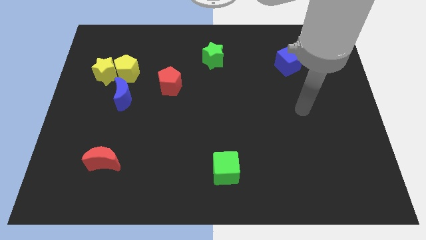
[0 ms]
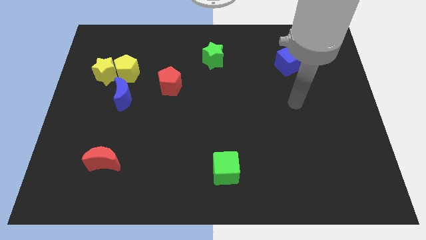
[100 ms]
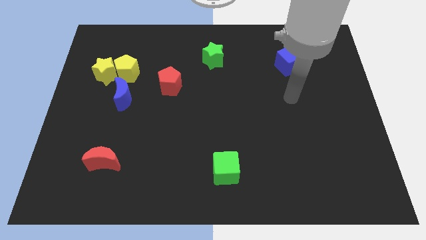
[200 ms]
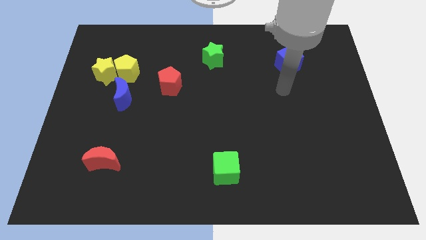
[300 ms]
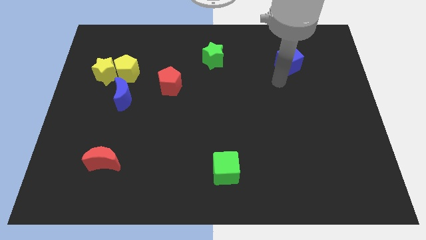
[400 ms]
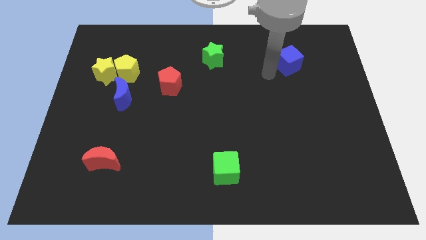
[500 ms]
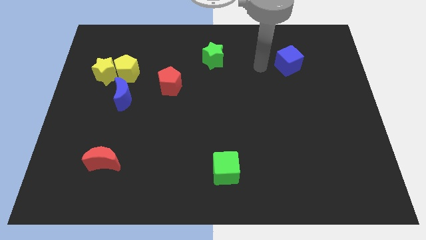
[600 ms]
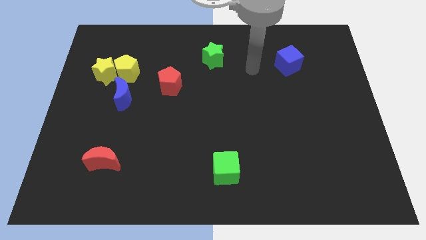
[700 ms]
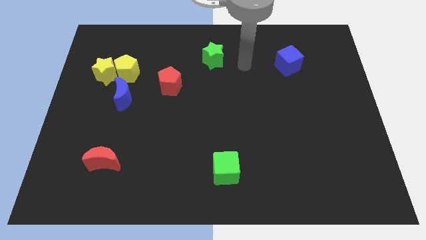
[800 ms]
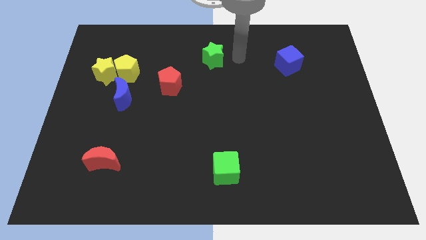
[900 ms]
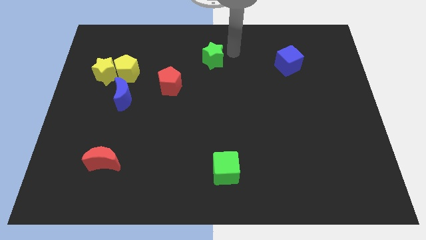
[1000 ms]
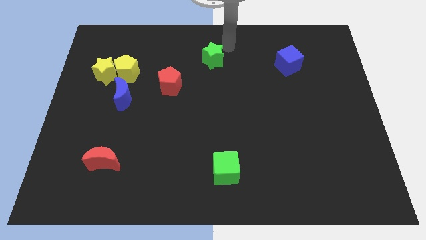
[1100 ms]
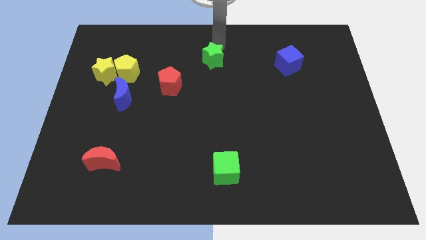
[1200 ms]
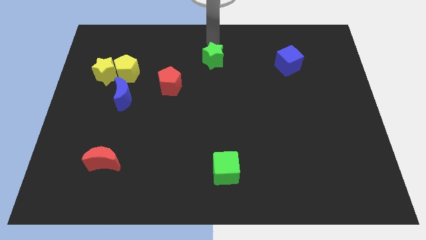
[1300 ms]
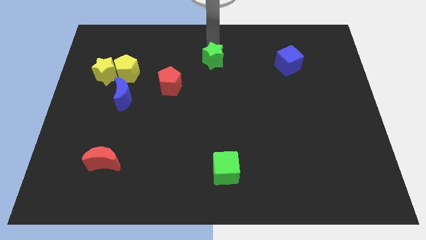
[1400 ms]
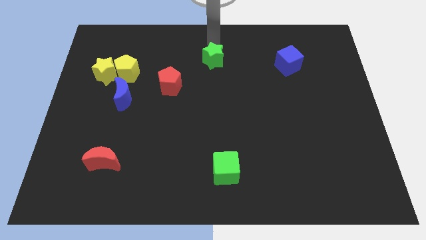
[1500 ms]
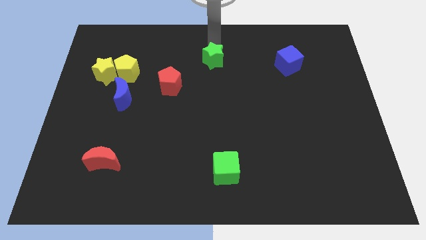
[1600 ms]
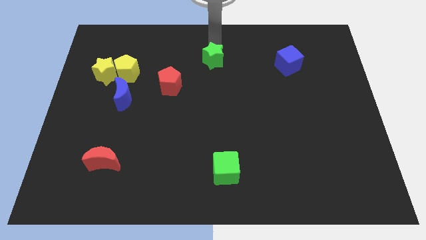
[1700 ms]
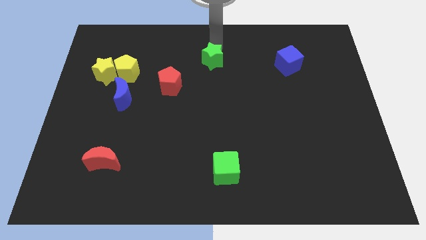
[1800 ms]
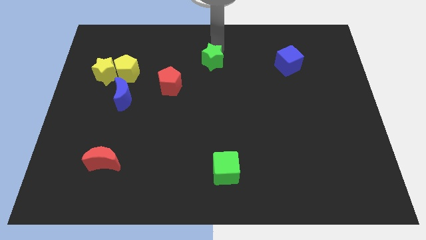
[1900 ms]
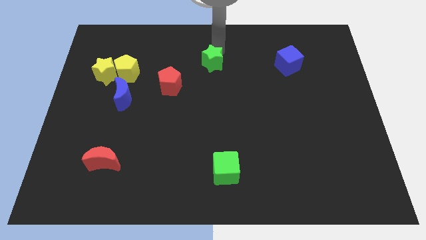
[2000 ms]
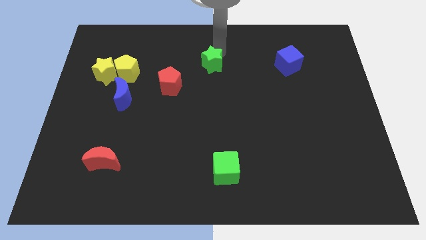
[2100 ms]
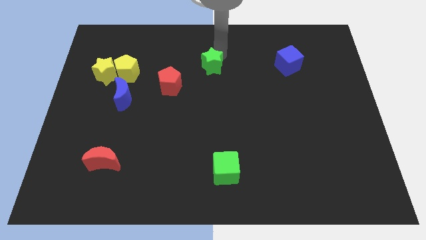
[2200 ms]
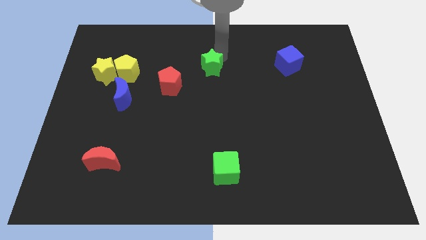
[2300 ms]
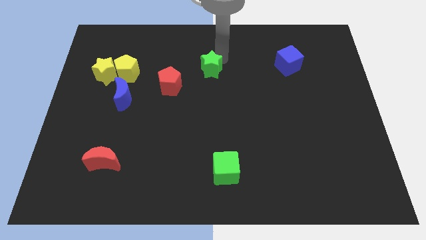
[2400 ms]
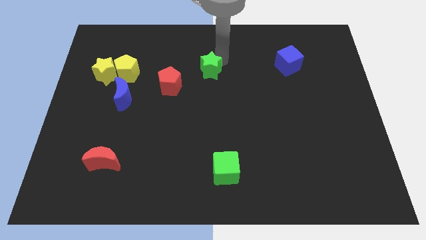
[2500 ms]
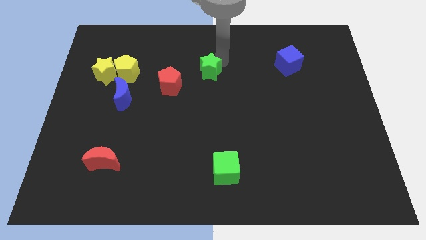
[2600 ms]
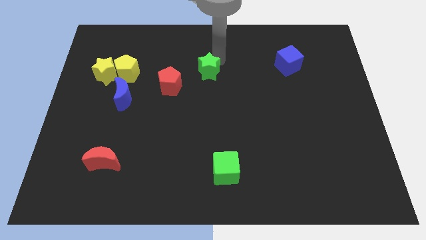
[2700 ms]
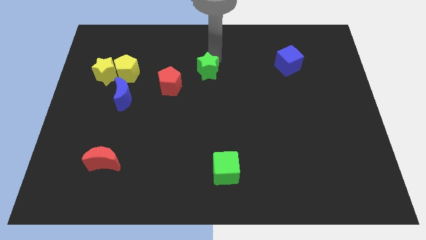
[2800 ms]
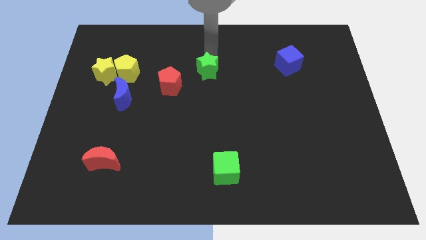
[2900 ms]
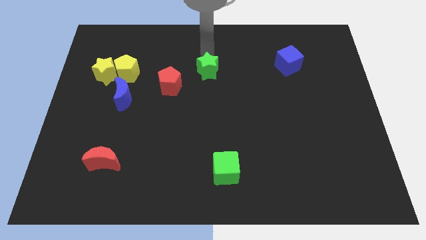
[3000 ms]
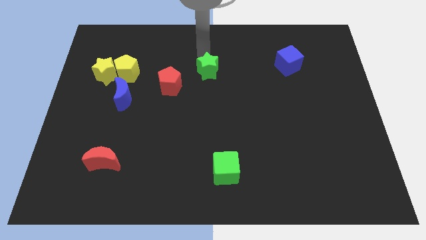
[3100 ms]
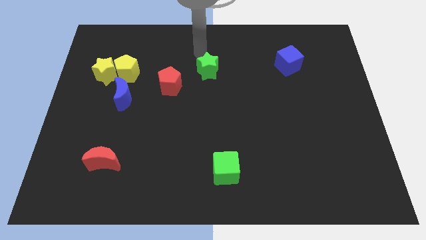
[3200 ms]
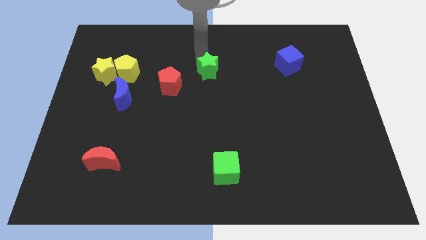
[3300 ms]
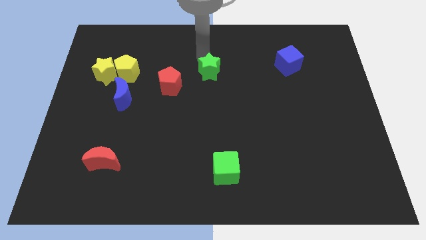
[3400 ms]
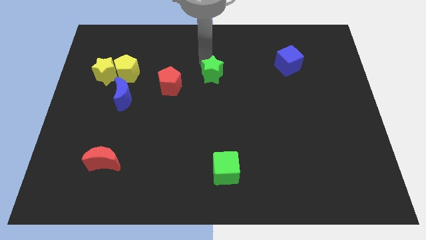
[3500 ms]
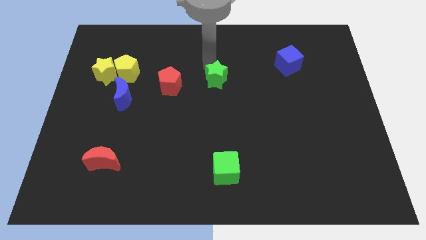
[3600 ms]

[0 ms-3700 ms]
slide the green star slightly downwards

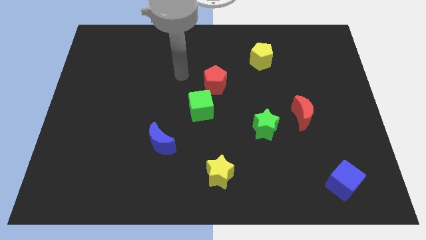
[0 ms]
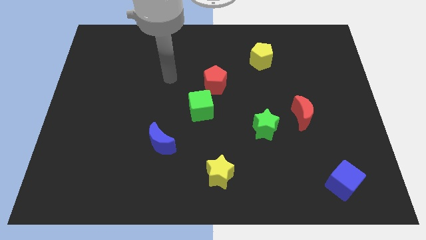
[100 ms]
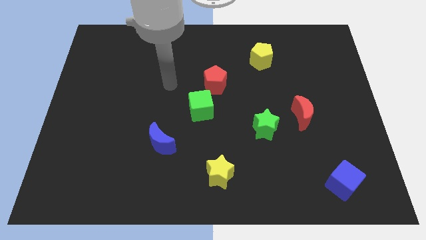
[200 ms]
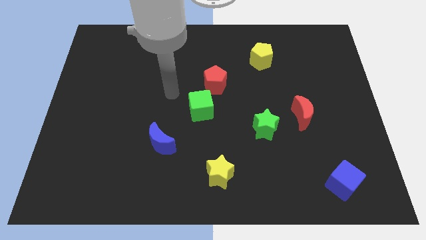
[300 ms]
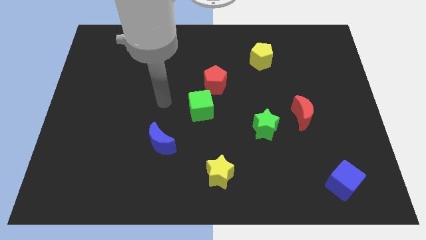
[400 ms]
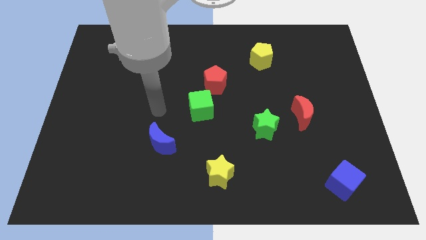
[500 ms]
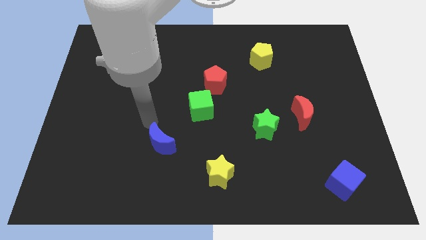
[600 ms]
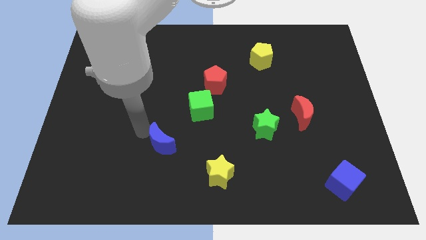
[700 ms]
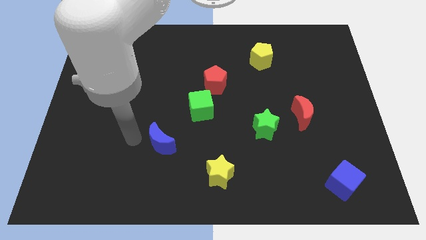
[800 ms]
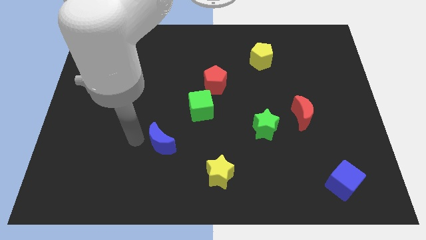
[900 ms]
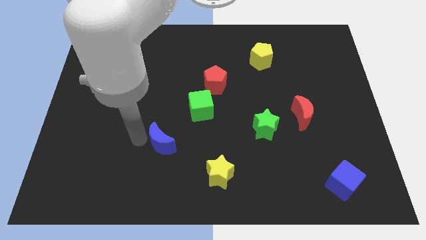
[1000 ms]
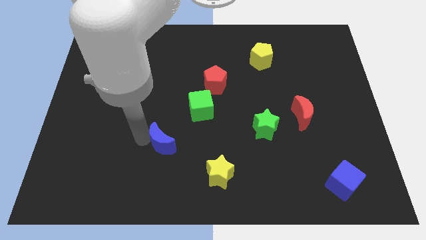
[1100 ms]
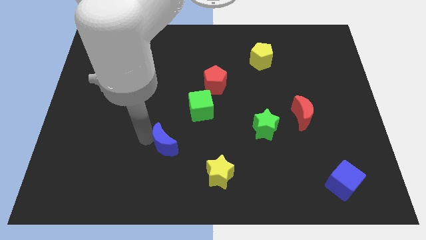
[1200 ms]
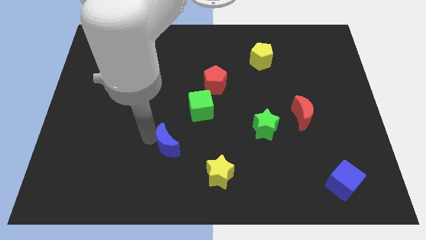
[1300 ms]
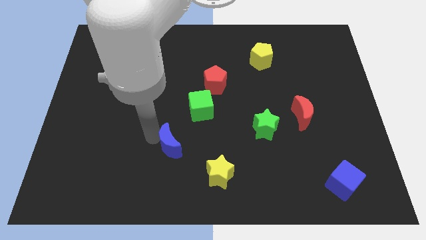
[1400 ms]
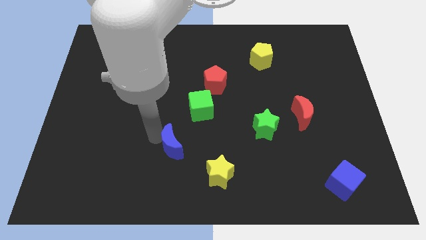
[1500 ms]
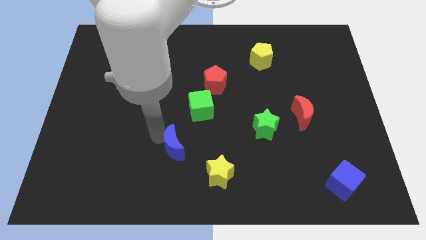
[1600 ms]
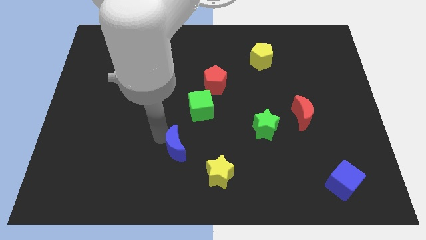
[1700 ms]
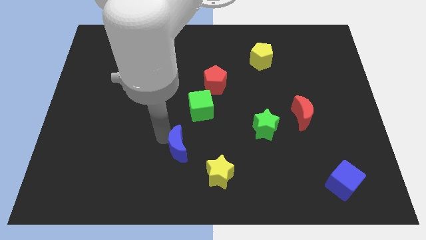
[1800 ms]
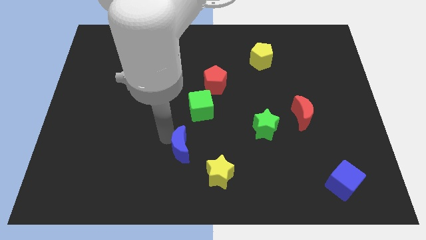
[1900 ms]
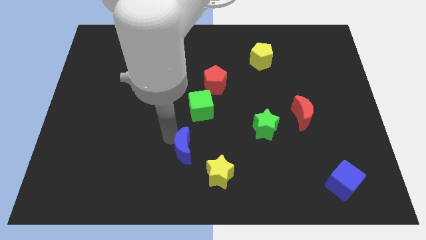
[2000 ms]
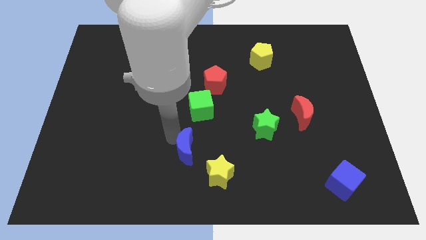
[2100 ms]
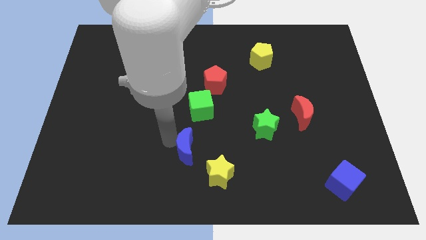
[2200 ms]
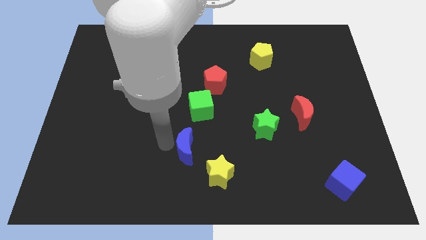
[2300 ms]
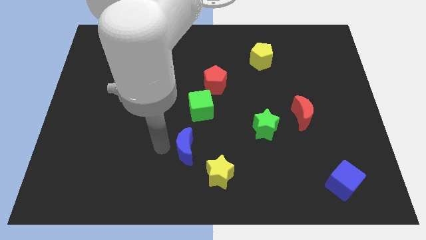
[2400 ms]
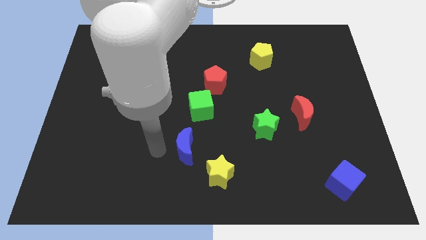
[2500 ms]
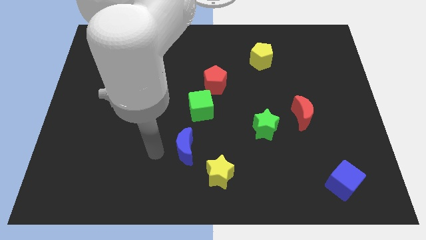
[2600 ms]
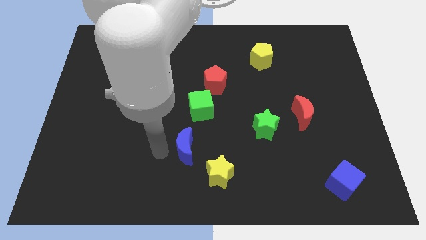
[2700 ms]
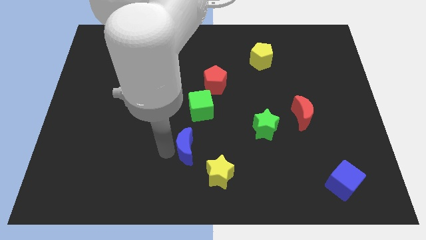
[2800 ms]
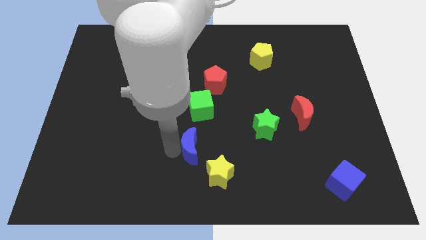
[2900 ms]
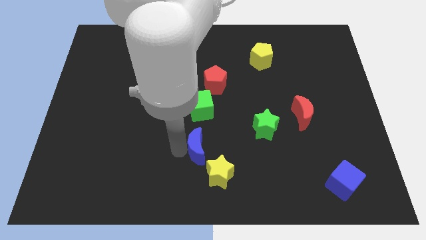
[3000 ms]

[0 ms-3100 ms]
push the blue moon right a little

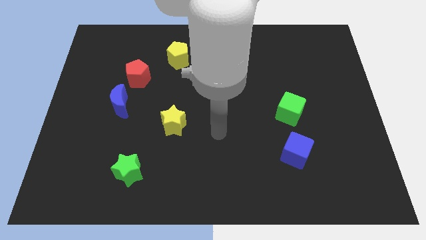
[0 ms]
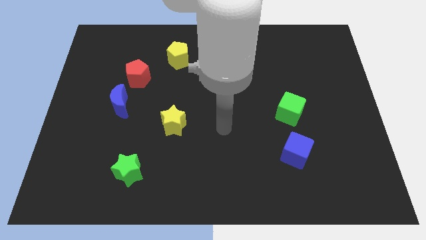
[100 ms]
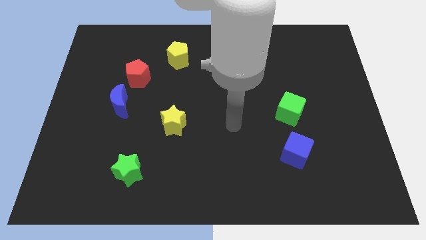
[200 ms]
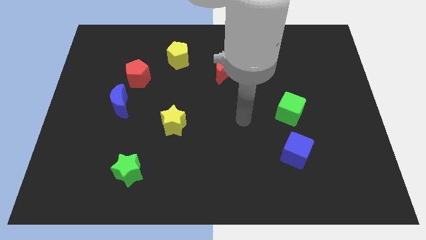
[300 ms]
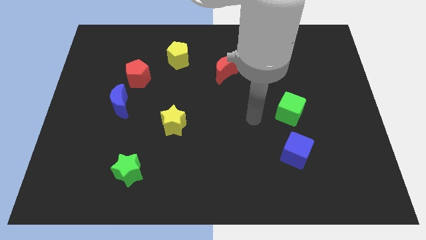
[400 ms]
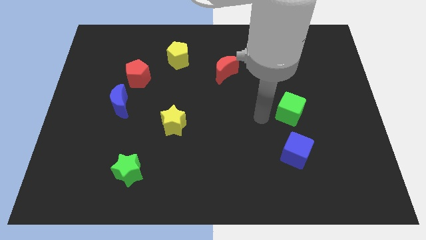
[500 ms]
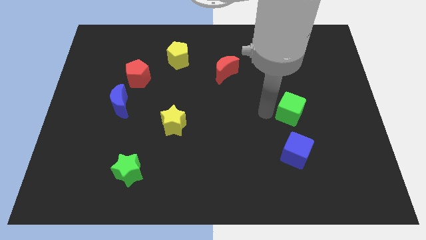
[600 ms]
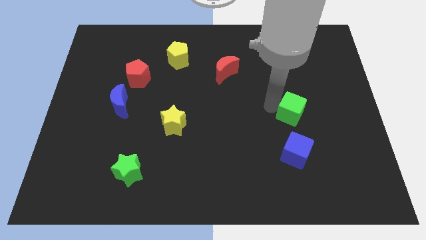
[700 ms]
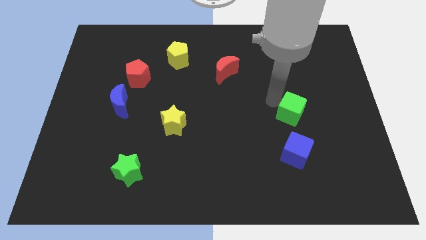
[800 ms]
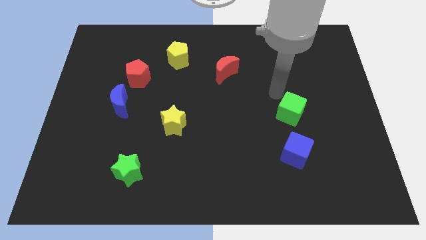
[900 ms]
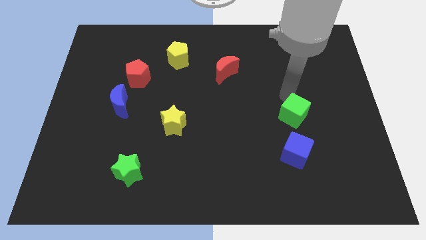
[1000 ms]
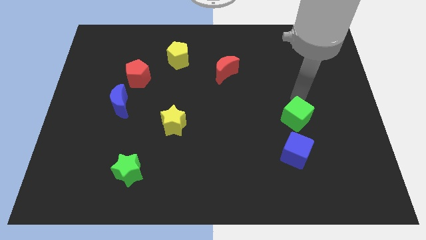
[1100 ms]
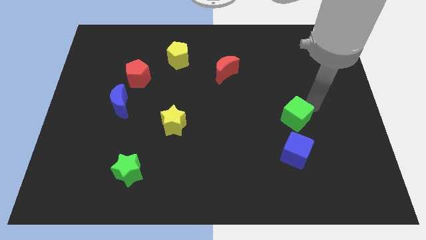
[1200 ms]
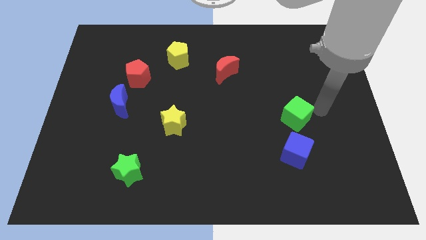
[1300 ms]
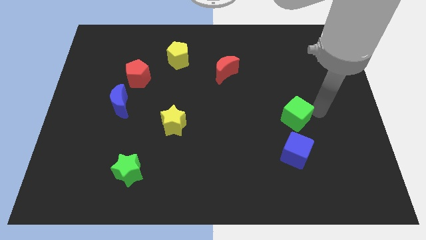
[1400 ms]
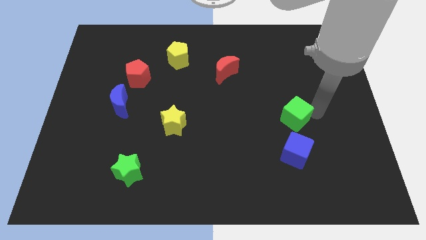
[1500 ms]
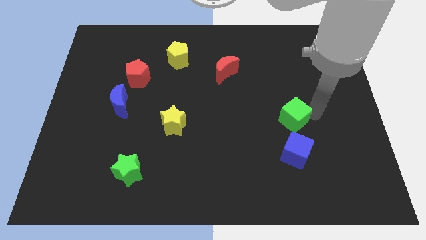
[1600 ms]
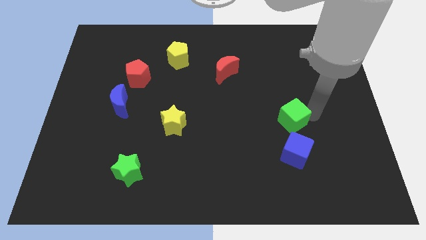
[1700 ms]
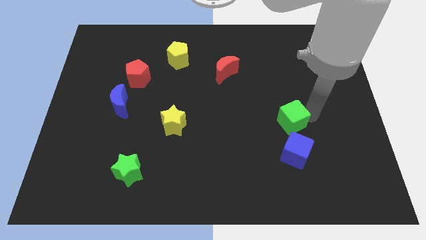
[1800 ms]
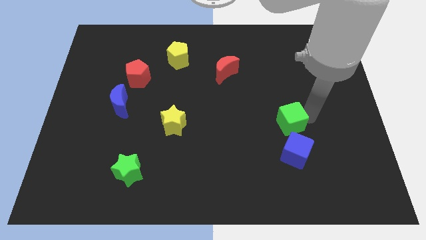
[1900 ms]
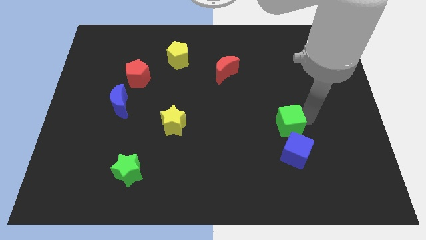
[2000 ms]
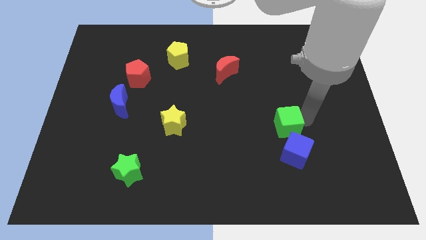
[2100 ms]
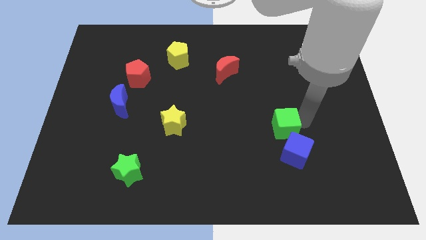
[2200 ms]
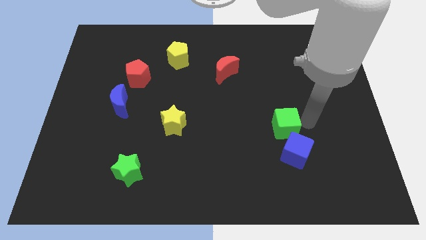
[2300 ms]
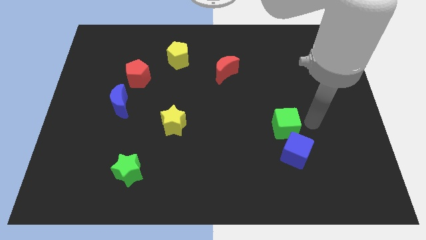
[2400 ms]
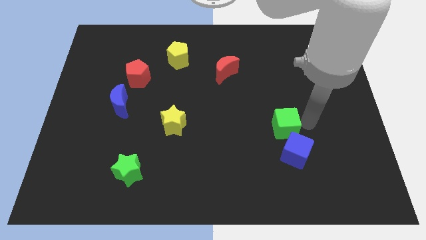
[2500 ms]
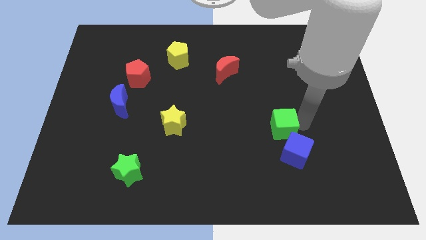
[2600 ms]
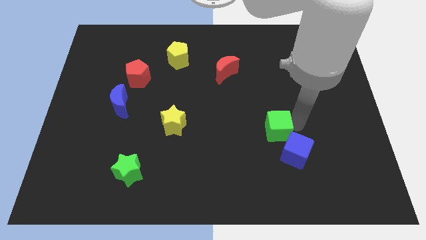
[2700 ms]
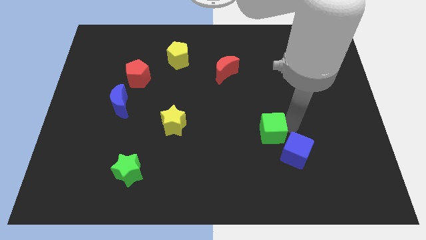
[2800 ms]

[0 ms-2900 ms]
push the green cube a bit diagonally down and left
